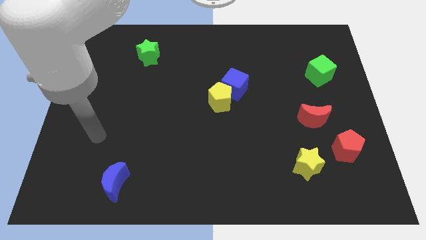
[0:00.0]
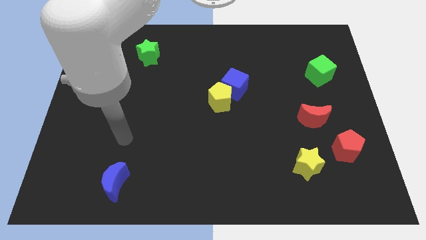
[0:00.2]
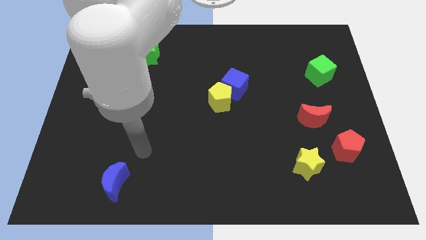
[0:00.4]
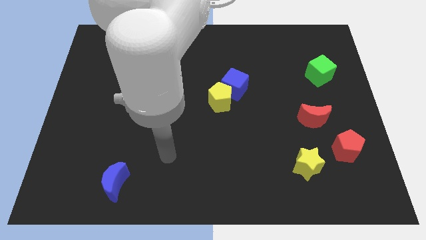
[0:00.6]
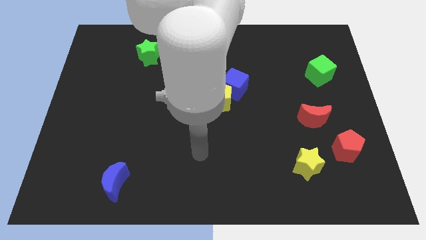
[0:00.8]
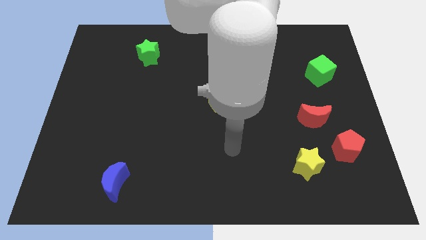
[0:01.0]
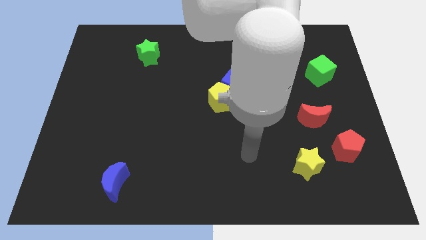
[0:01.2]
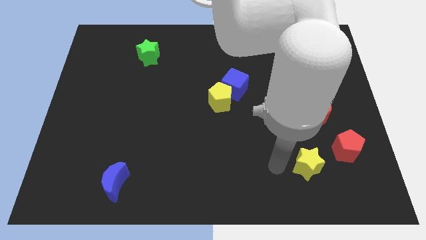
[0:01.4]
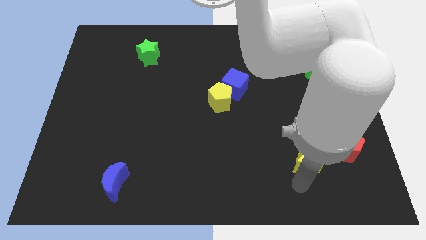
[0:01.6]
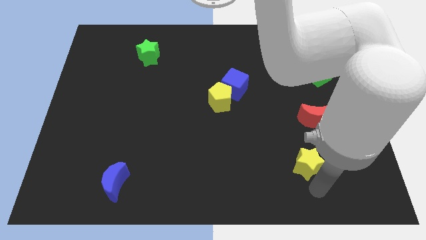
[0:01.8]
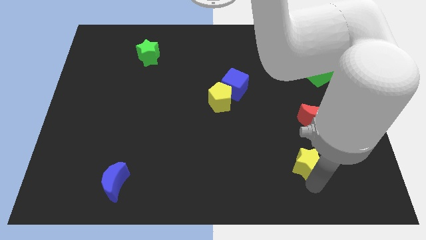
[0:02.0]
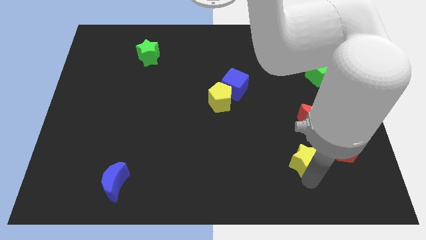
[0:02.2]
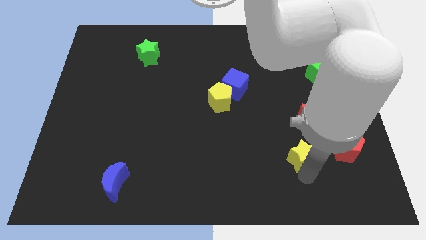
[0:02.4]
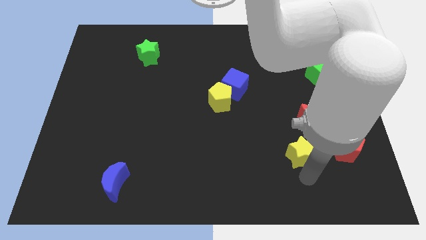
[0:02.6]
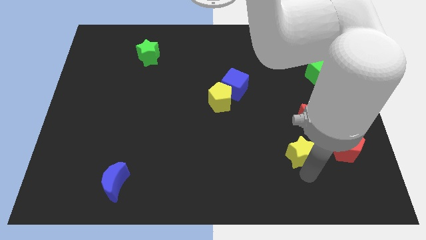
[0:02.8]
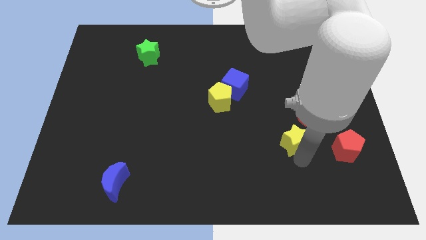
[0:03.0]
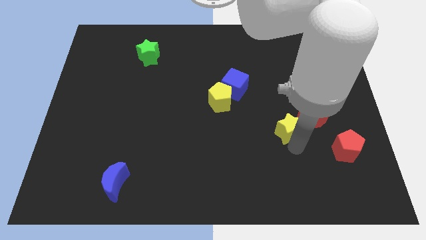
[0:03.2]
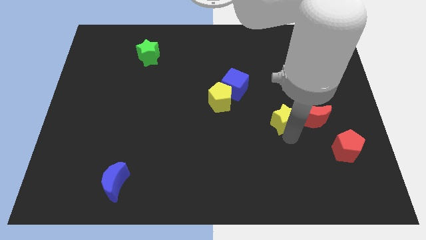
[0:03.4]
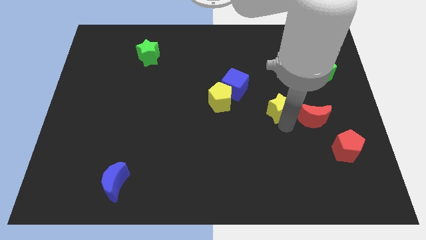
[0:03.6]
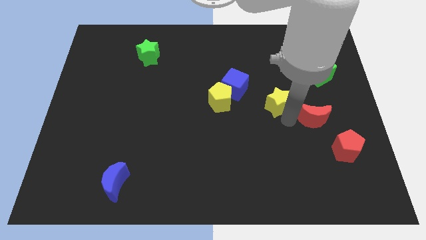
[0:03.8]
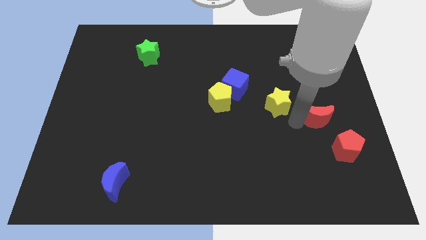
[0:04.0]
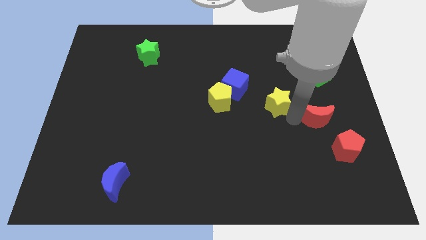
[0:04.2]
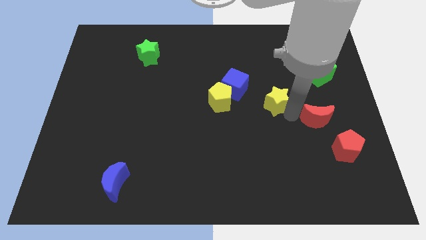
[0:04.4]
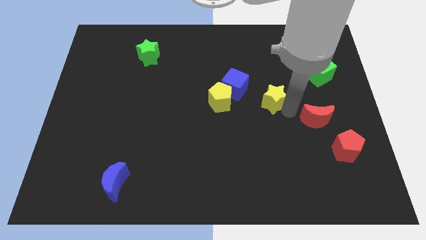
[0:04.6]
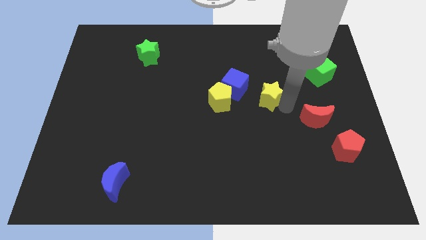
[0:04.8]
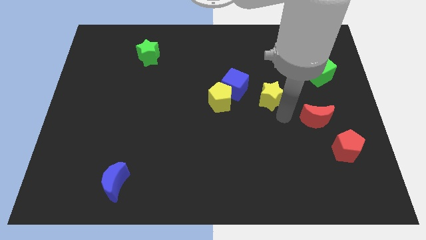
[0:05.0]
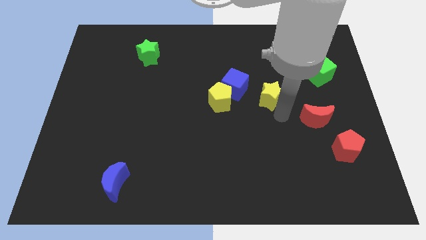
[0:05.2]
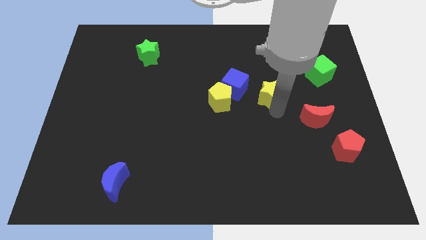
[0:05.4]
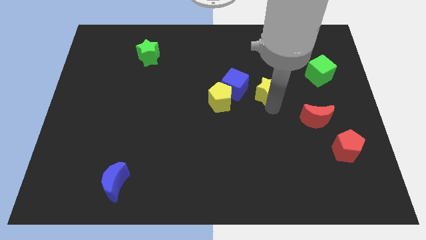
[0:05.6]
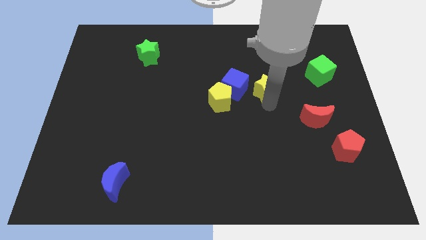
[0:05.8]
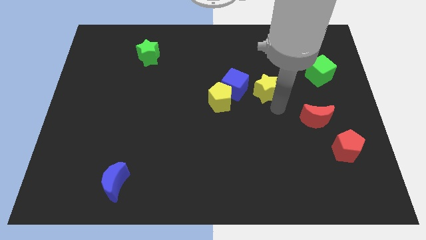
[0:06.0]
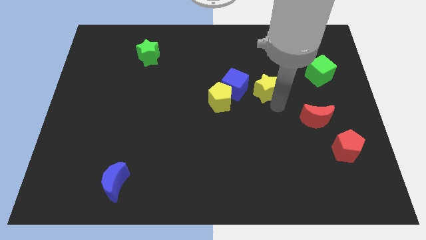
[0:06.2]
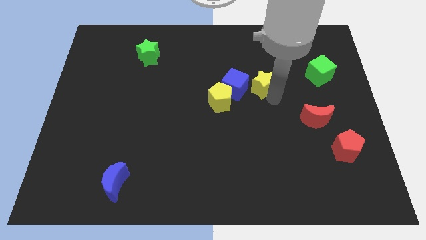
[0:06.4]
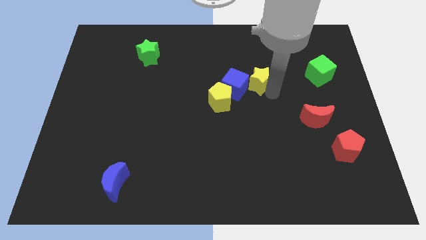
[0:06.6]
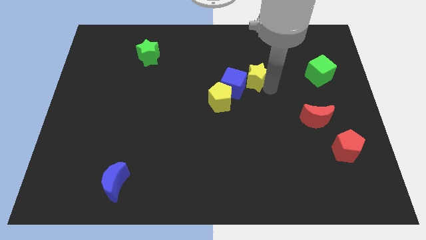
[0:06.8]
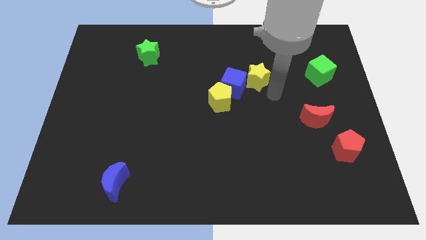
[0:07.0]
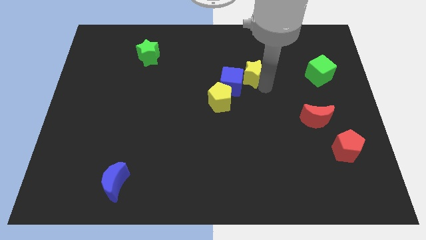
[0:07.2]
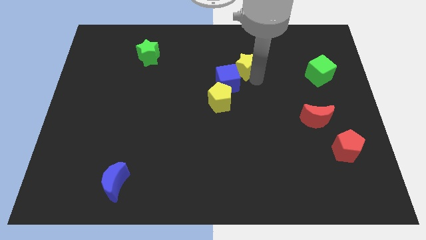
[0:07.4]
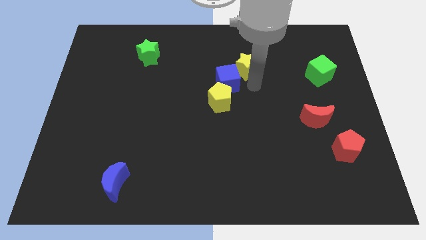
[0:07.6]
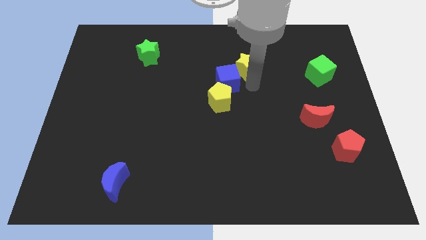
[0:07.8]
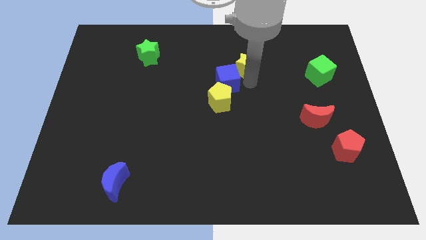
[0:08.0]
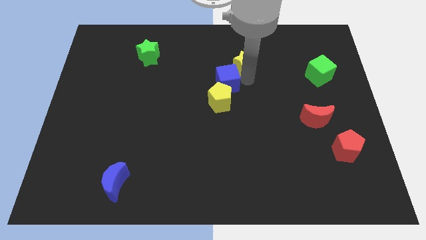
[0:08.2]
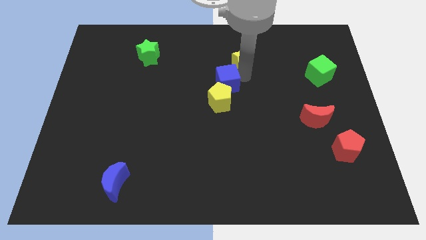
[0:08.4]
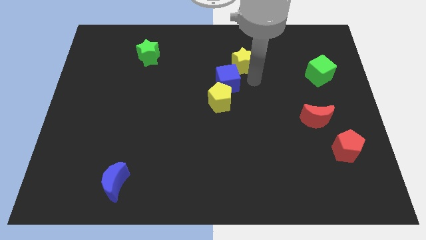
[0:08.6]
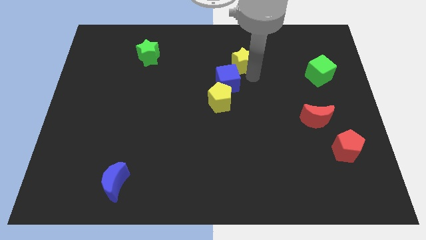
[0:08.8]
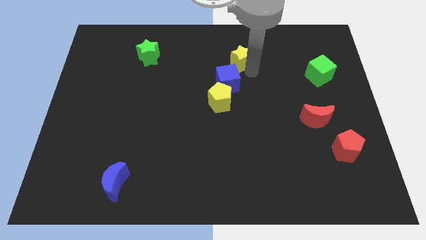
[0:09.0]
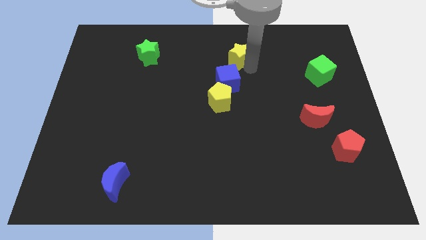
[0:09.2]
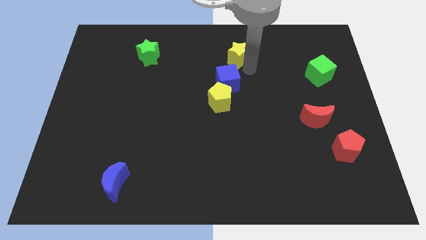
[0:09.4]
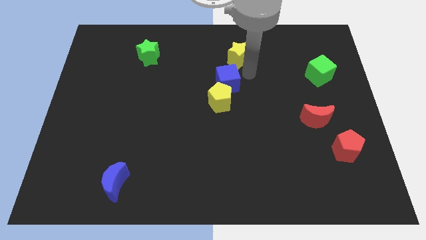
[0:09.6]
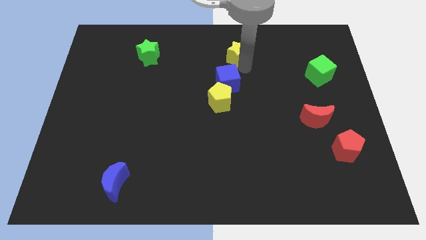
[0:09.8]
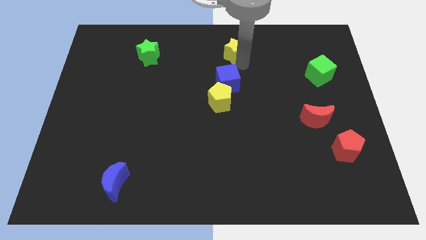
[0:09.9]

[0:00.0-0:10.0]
push the yellow star to the top

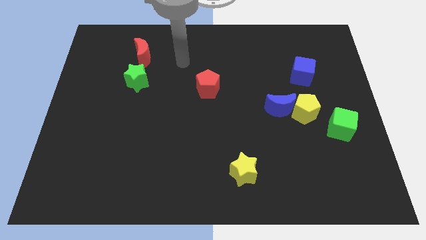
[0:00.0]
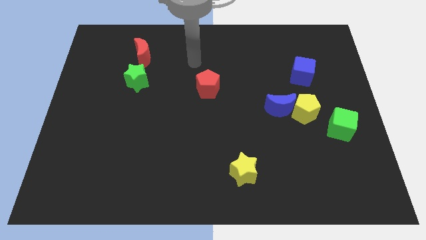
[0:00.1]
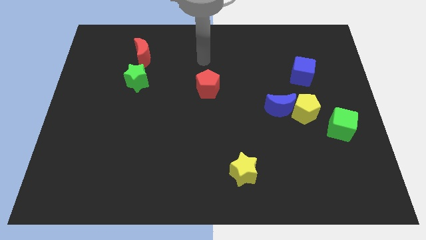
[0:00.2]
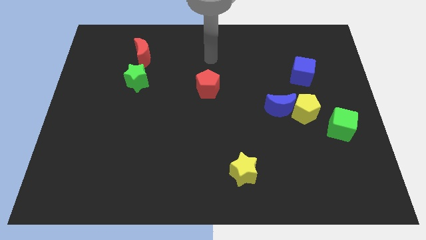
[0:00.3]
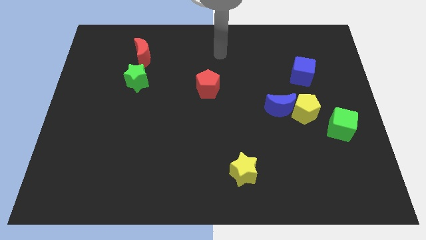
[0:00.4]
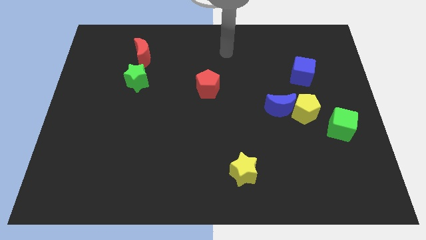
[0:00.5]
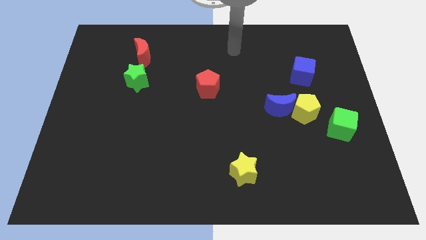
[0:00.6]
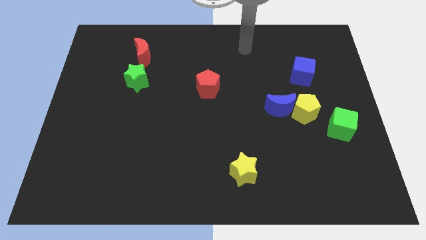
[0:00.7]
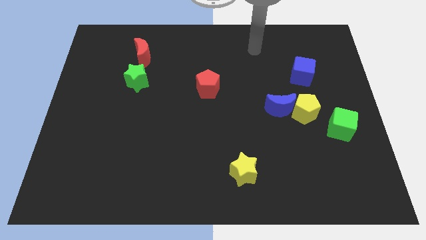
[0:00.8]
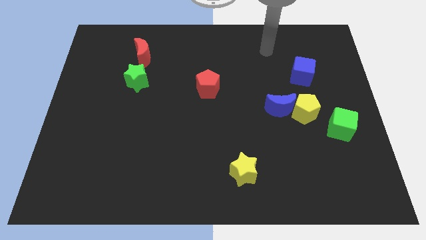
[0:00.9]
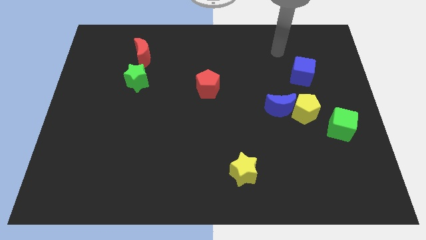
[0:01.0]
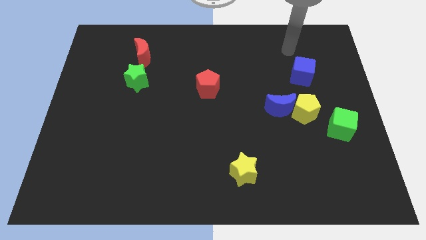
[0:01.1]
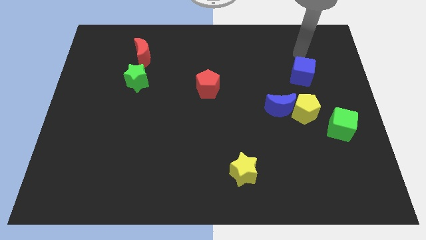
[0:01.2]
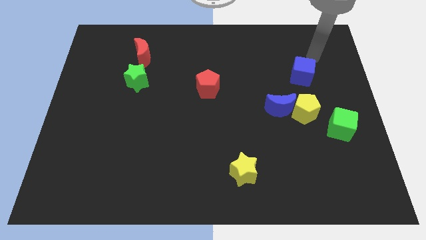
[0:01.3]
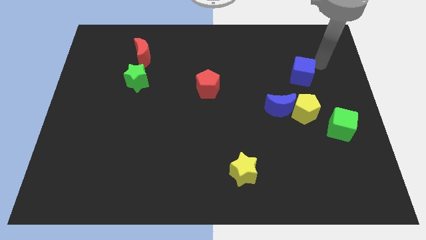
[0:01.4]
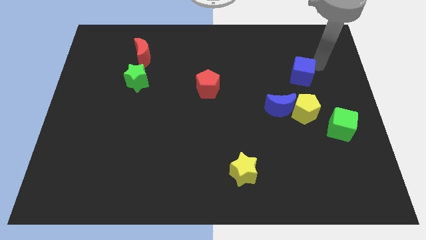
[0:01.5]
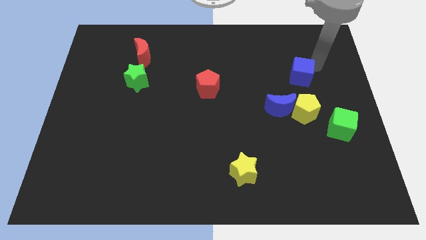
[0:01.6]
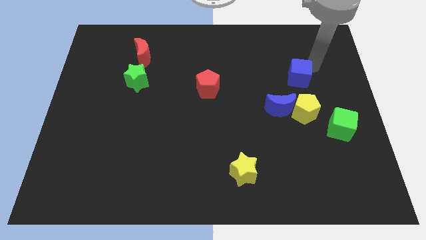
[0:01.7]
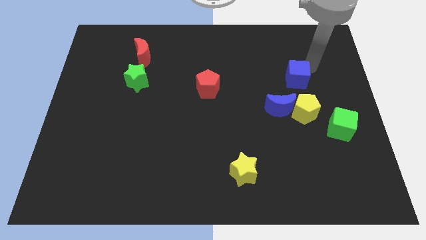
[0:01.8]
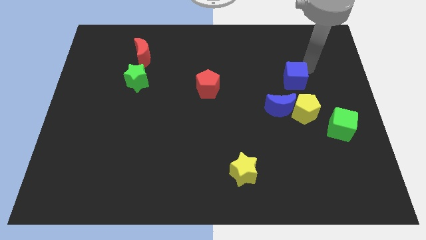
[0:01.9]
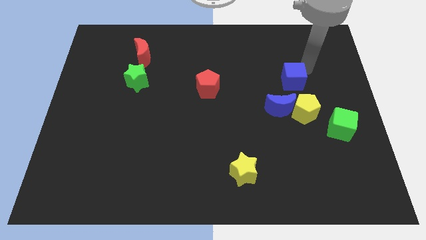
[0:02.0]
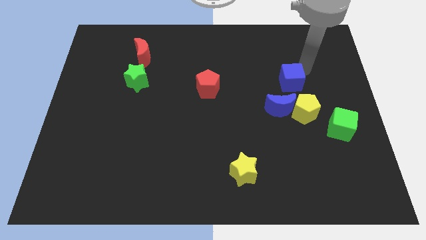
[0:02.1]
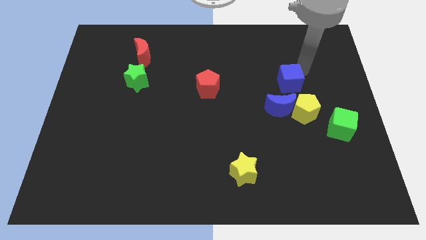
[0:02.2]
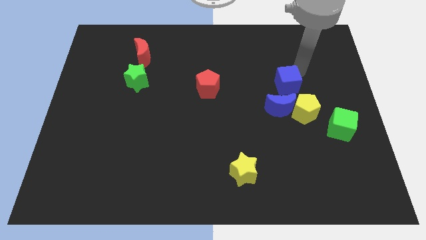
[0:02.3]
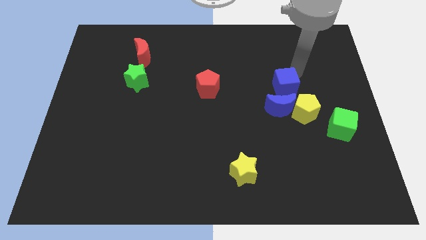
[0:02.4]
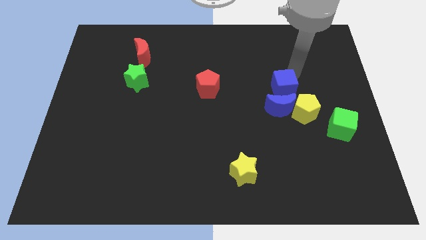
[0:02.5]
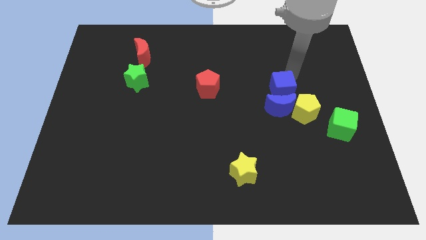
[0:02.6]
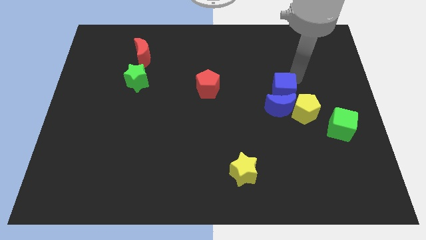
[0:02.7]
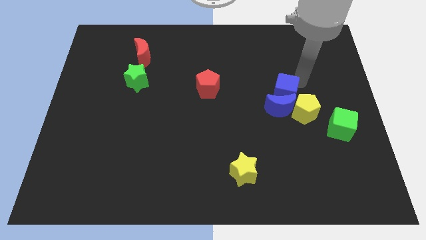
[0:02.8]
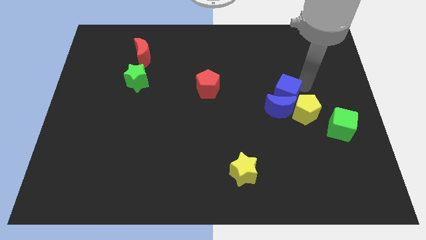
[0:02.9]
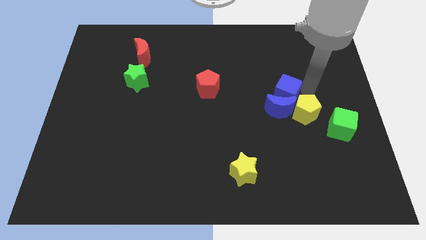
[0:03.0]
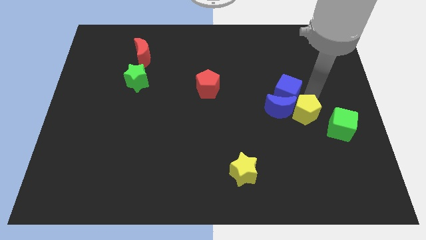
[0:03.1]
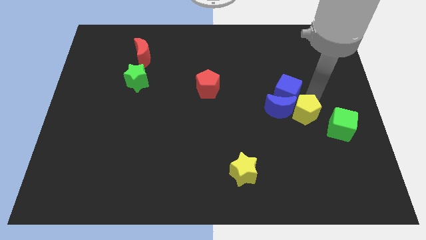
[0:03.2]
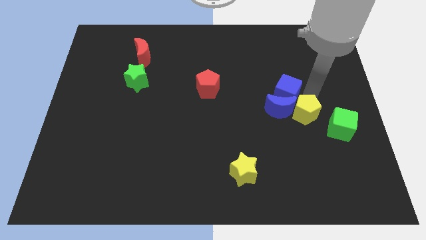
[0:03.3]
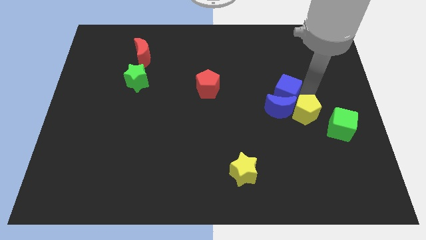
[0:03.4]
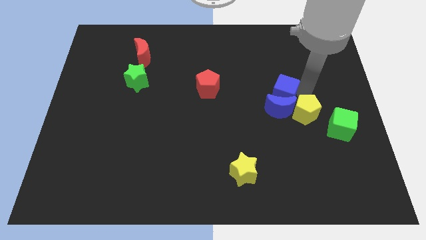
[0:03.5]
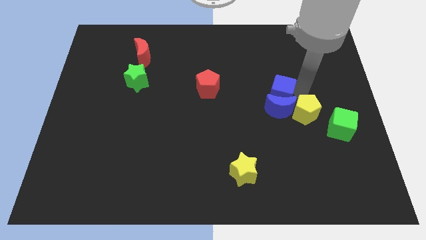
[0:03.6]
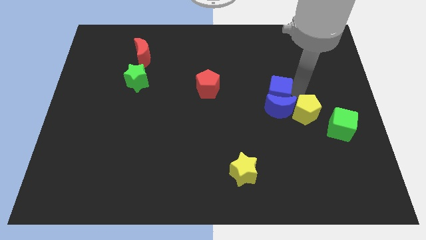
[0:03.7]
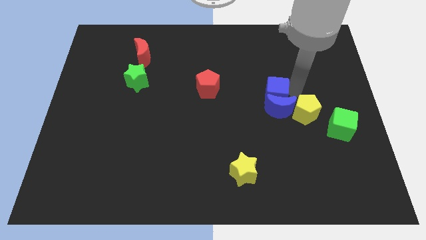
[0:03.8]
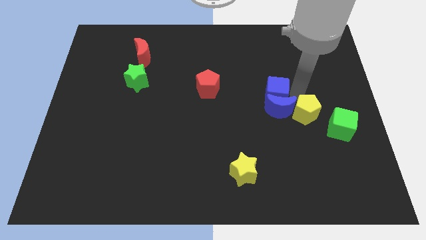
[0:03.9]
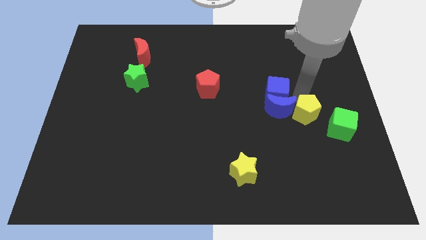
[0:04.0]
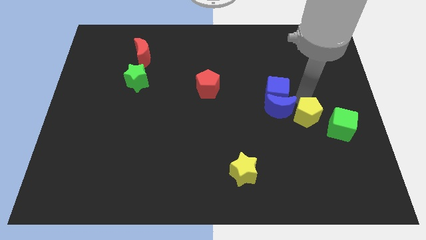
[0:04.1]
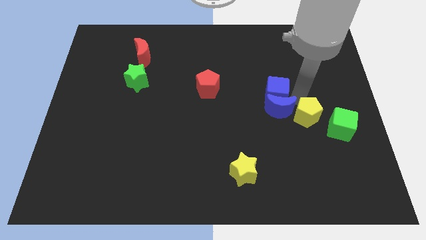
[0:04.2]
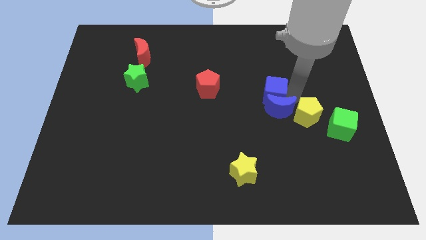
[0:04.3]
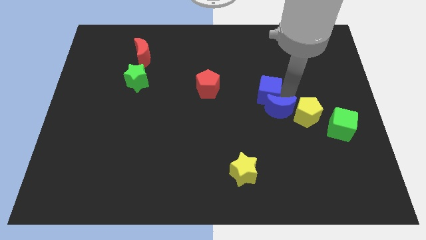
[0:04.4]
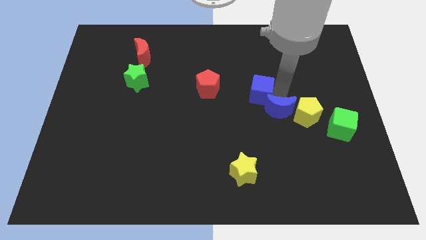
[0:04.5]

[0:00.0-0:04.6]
push the blue cube to the middle of the board
